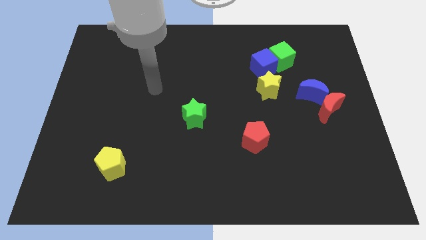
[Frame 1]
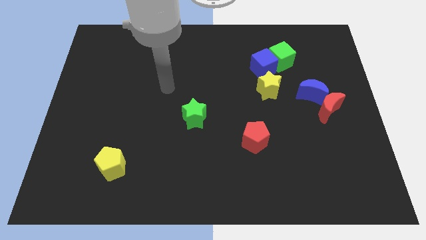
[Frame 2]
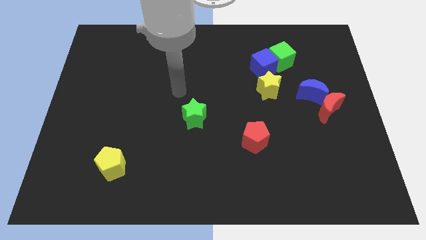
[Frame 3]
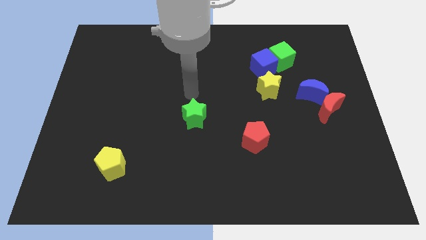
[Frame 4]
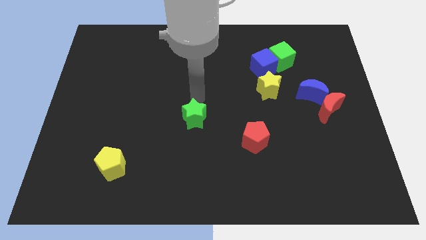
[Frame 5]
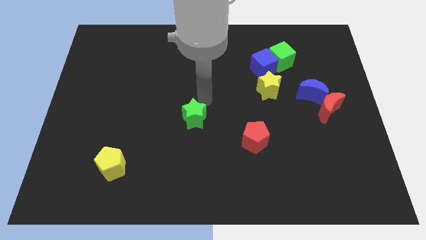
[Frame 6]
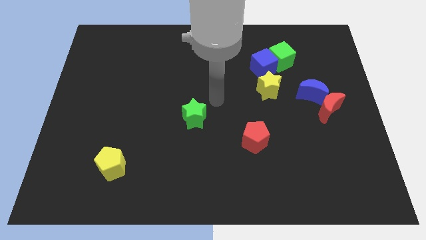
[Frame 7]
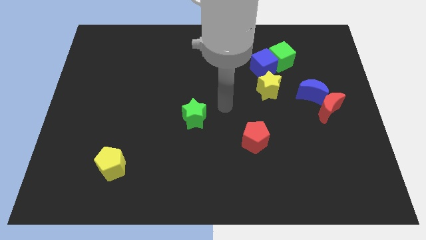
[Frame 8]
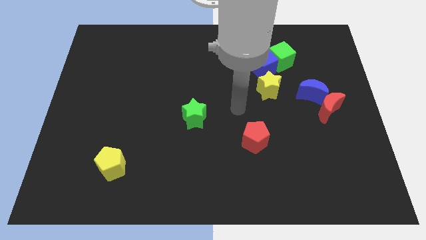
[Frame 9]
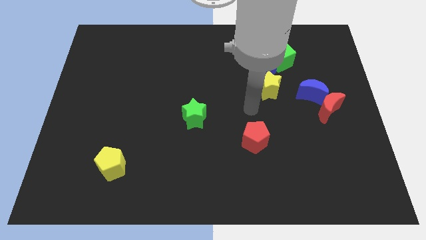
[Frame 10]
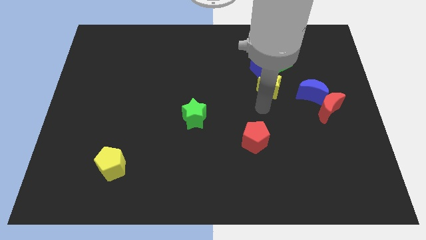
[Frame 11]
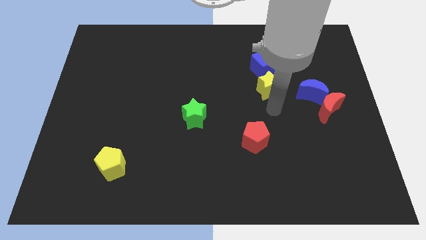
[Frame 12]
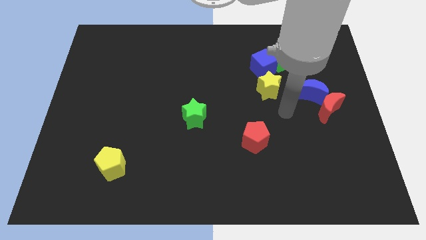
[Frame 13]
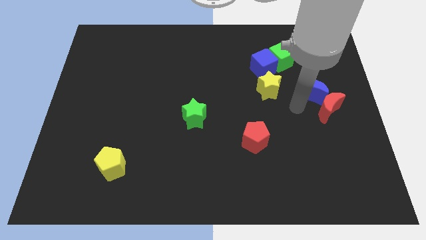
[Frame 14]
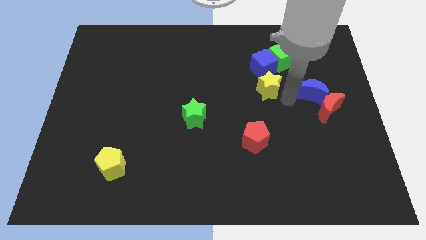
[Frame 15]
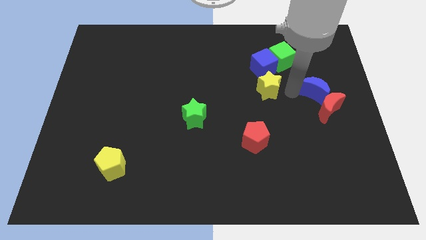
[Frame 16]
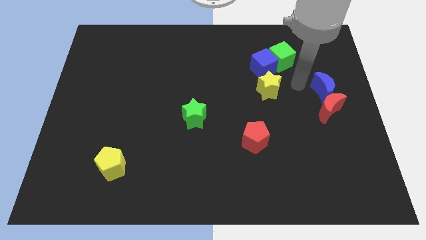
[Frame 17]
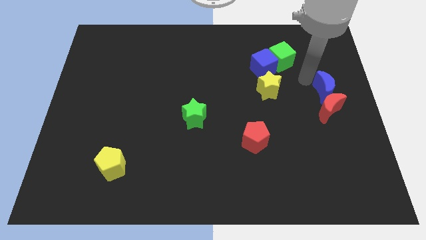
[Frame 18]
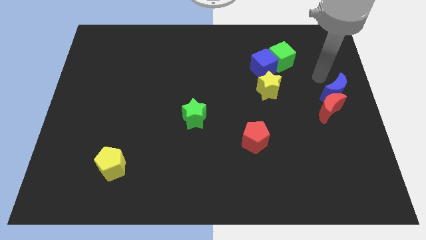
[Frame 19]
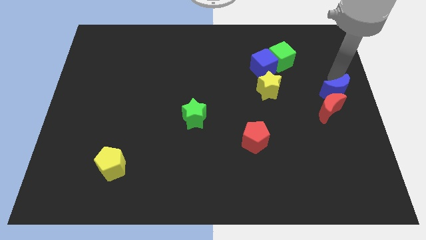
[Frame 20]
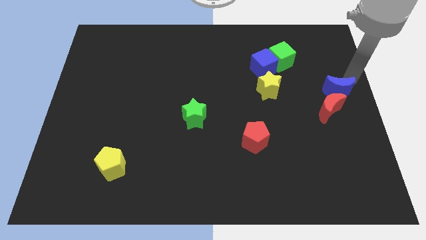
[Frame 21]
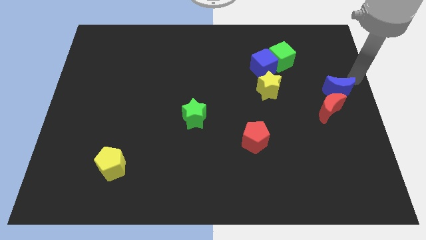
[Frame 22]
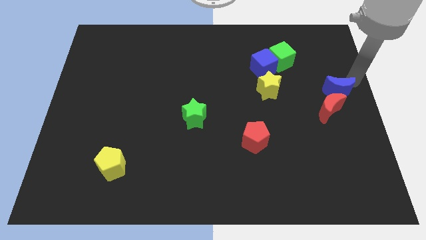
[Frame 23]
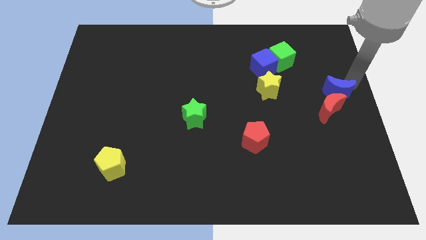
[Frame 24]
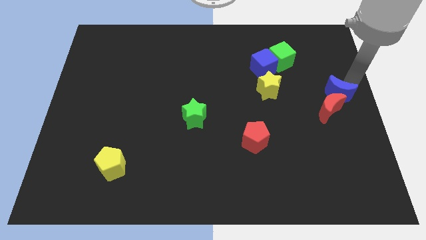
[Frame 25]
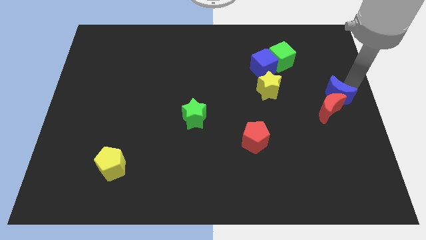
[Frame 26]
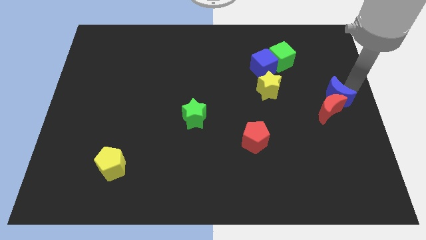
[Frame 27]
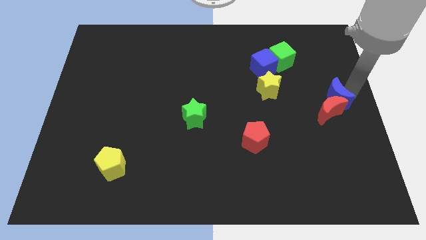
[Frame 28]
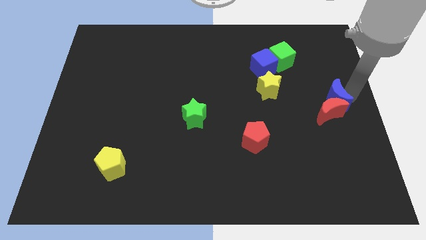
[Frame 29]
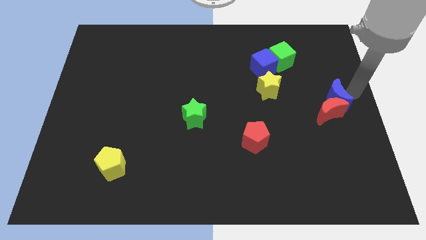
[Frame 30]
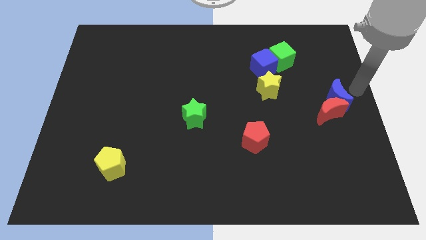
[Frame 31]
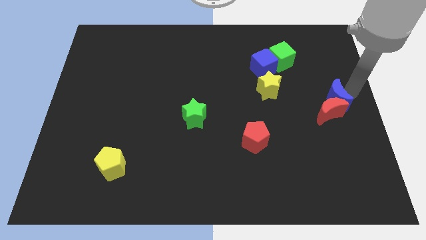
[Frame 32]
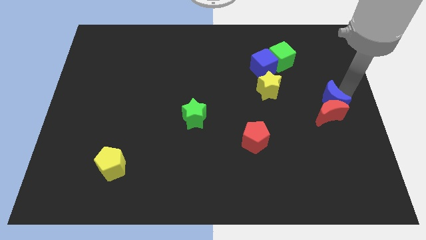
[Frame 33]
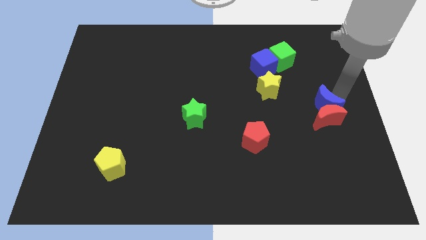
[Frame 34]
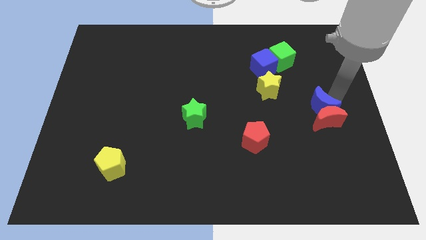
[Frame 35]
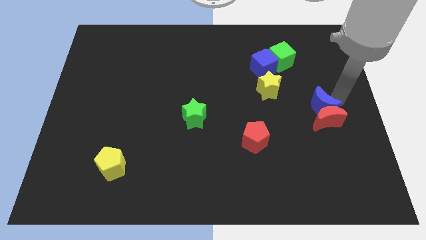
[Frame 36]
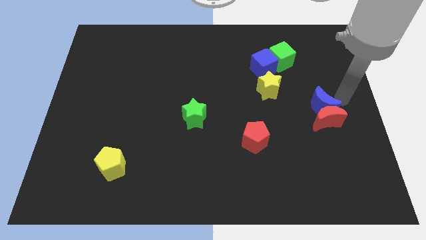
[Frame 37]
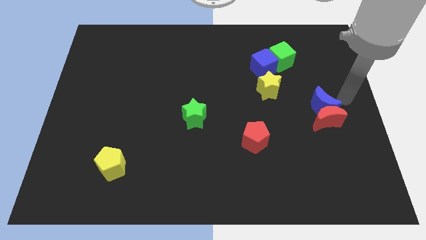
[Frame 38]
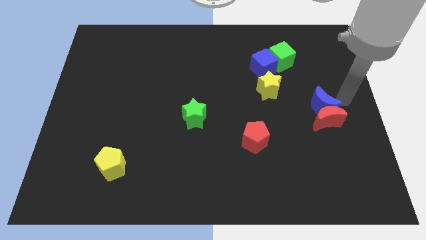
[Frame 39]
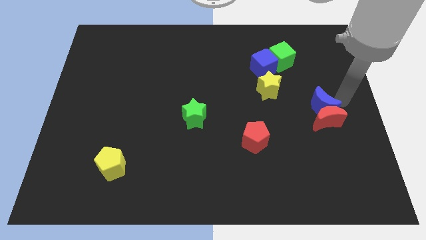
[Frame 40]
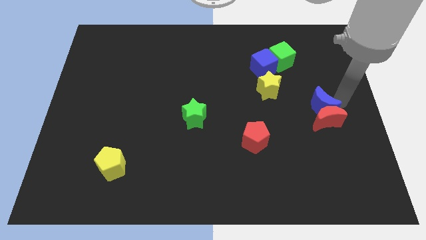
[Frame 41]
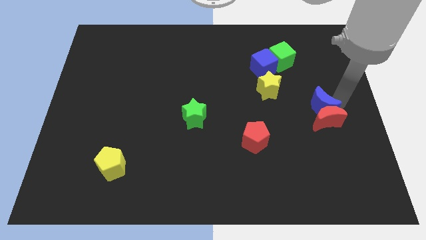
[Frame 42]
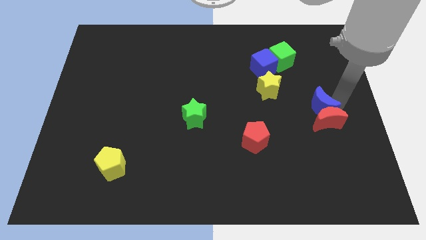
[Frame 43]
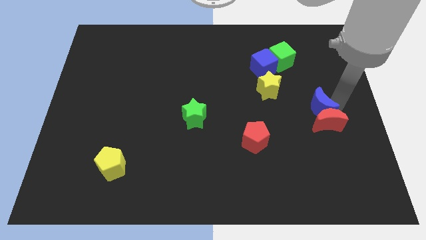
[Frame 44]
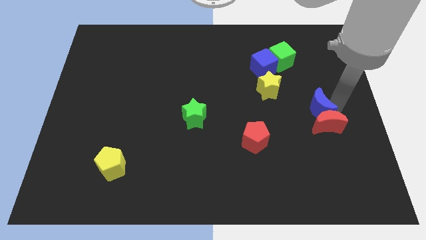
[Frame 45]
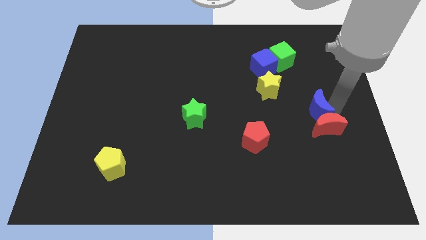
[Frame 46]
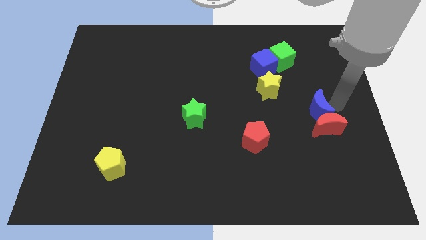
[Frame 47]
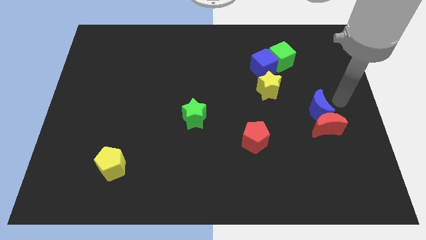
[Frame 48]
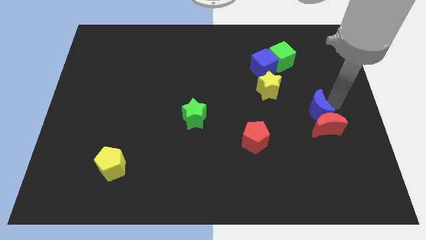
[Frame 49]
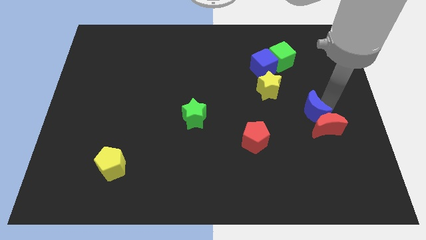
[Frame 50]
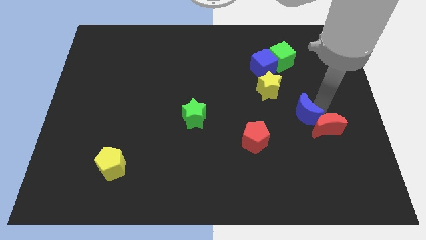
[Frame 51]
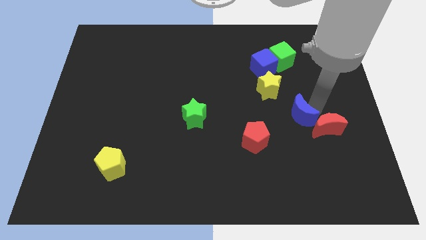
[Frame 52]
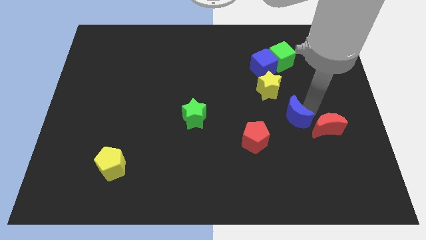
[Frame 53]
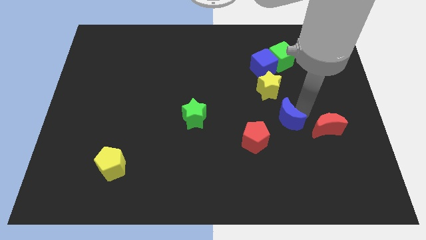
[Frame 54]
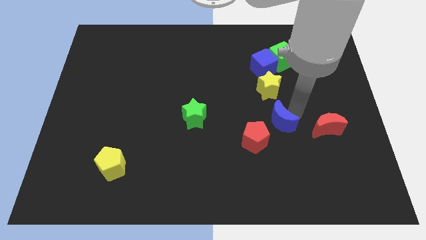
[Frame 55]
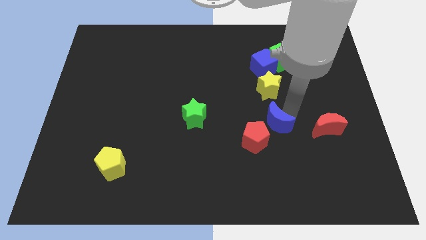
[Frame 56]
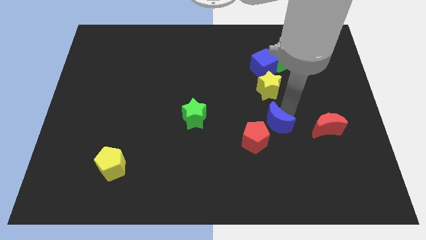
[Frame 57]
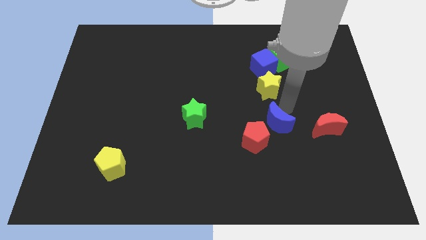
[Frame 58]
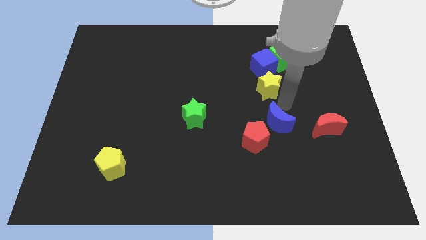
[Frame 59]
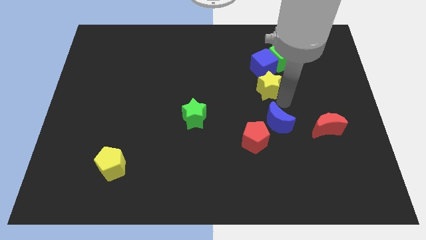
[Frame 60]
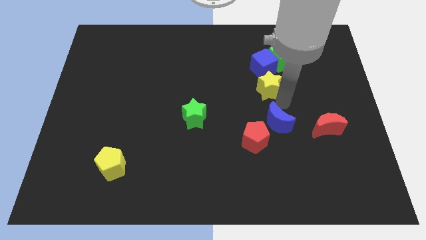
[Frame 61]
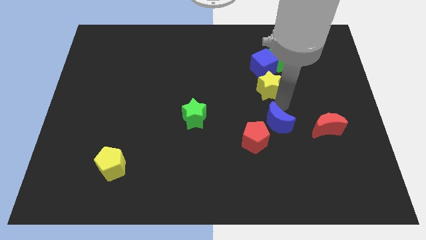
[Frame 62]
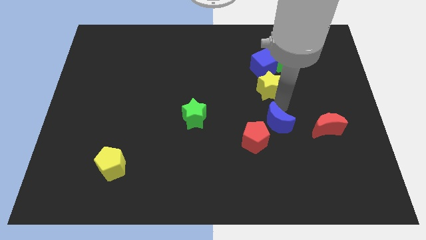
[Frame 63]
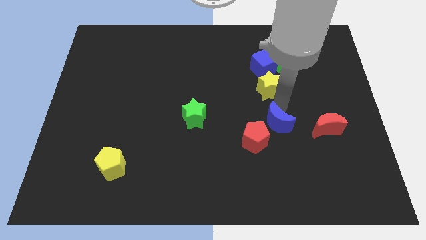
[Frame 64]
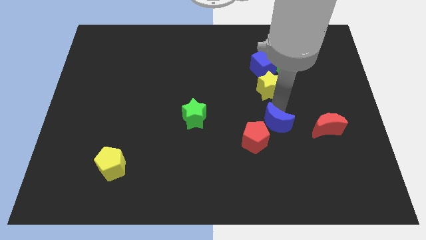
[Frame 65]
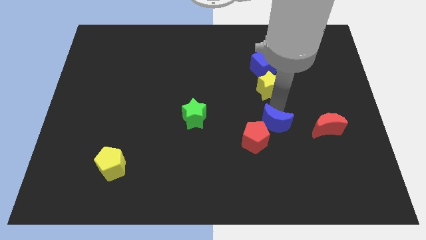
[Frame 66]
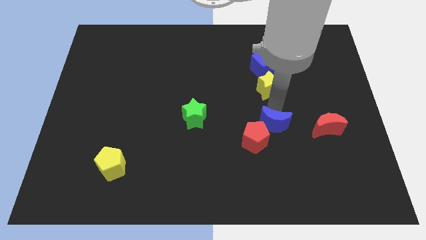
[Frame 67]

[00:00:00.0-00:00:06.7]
push the blue moon to the red pentagon
